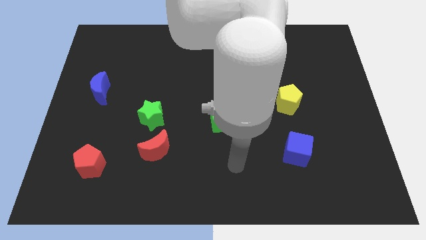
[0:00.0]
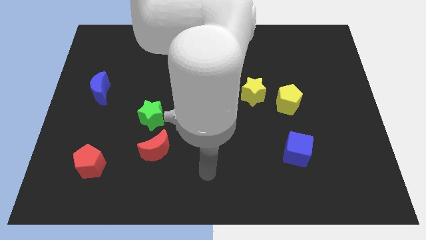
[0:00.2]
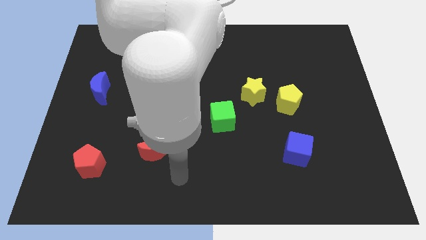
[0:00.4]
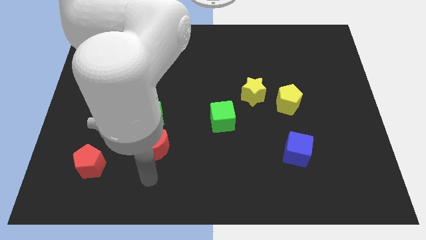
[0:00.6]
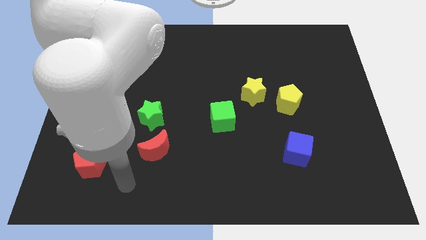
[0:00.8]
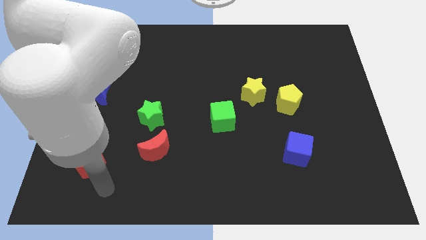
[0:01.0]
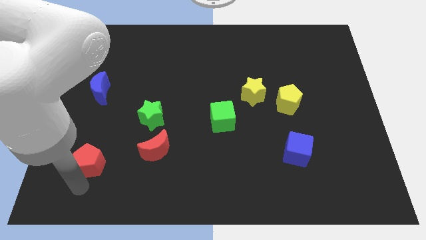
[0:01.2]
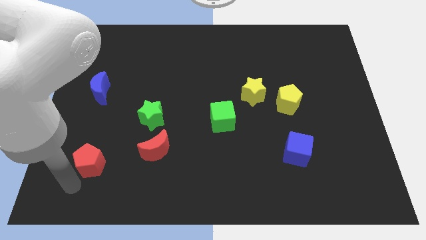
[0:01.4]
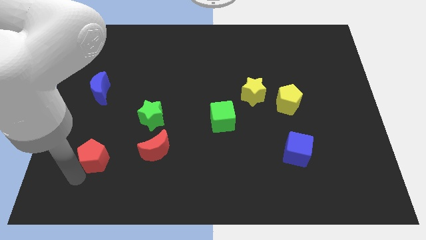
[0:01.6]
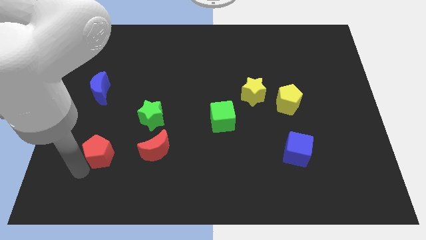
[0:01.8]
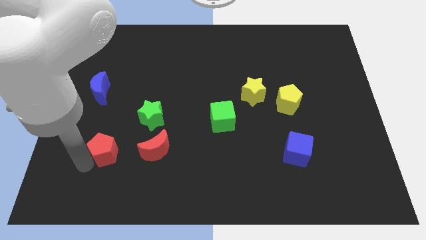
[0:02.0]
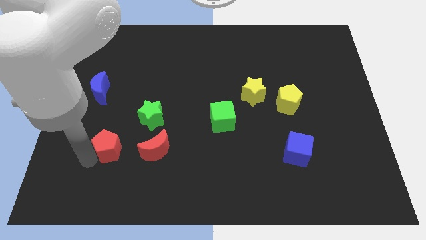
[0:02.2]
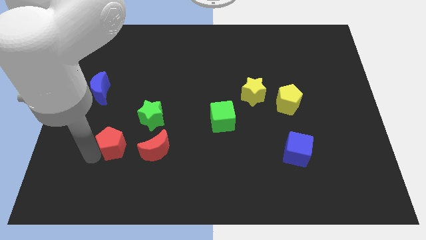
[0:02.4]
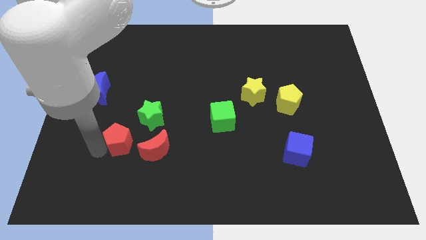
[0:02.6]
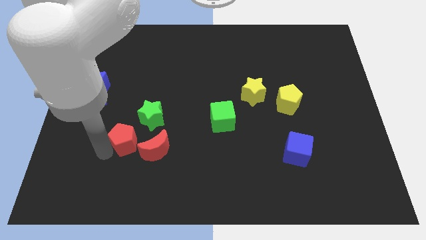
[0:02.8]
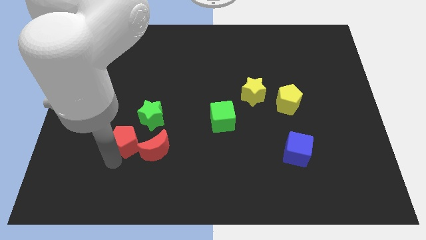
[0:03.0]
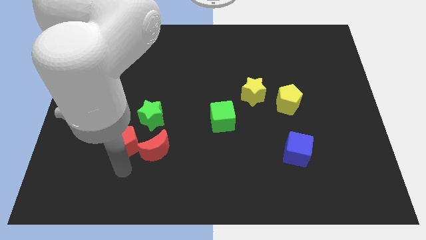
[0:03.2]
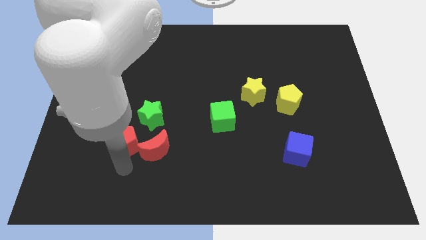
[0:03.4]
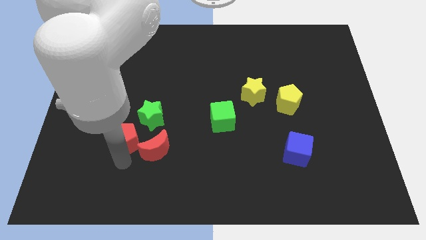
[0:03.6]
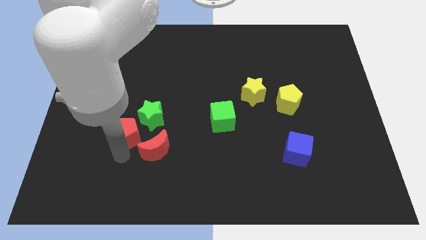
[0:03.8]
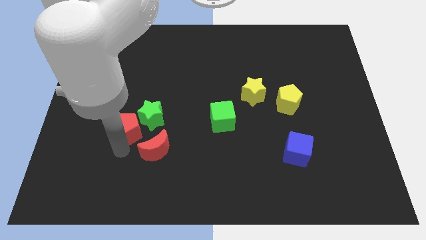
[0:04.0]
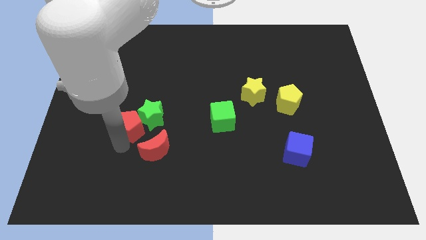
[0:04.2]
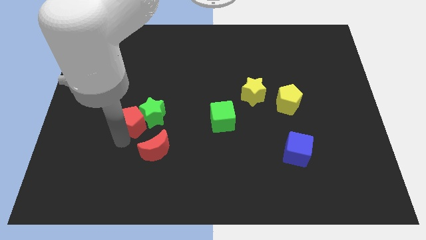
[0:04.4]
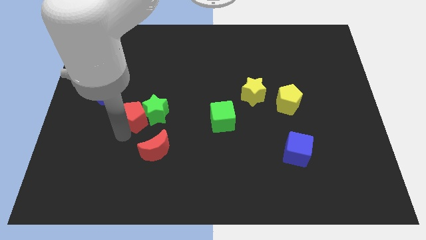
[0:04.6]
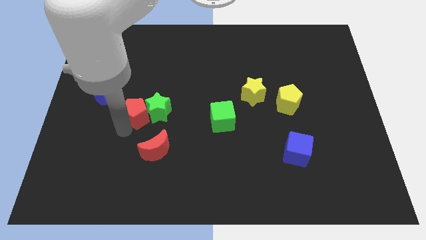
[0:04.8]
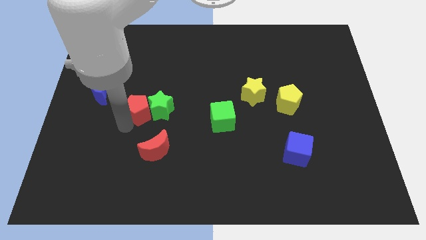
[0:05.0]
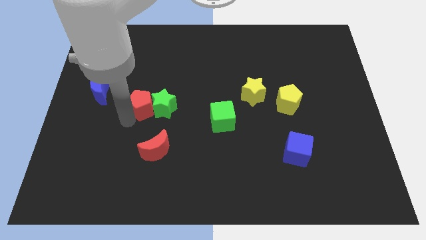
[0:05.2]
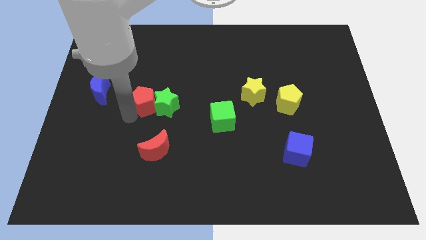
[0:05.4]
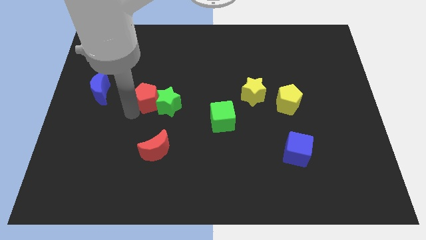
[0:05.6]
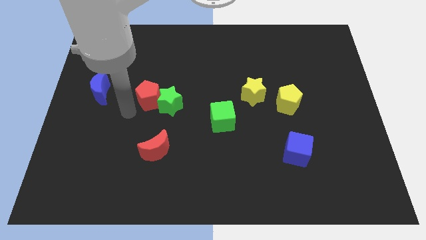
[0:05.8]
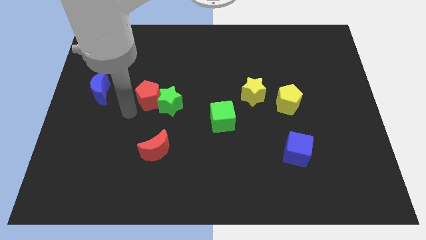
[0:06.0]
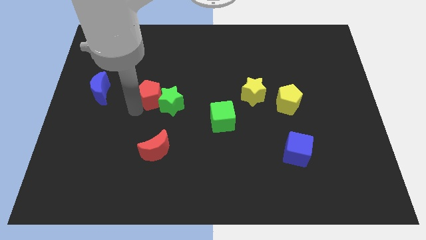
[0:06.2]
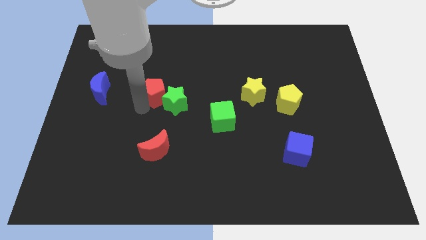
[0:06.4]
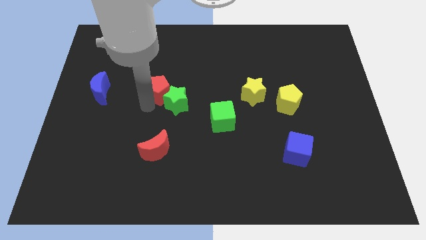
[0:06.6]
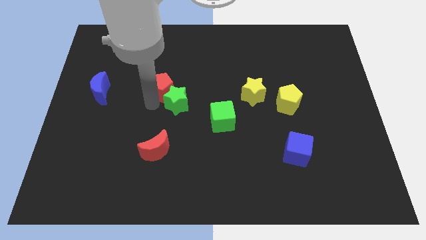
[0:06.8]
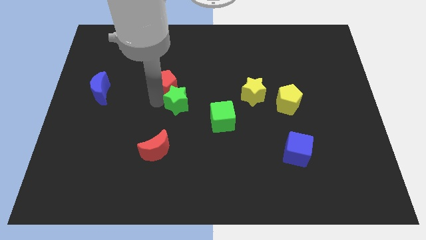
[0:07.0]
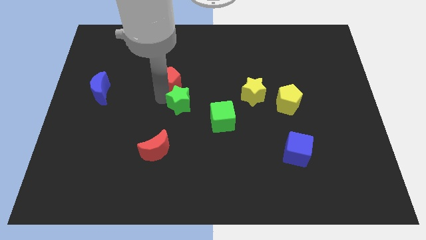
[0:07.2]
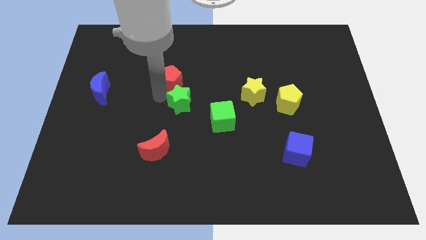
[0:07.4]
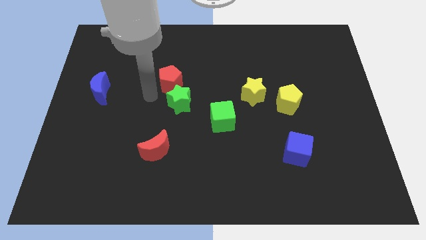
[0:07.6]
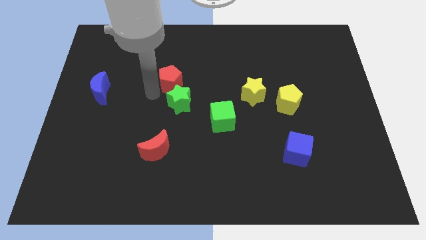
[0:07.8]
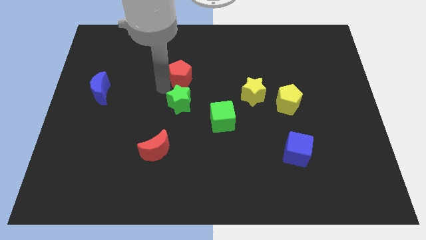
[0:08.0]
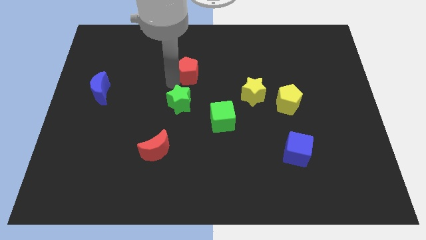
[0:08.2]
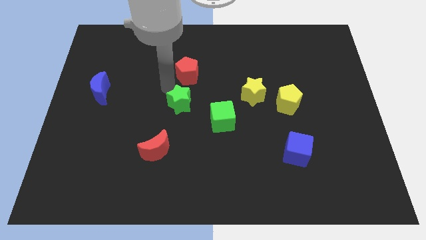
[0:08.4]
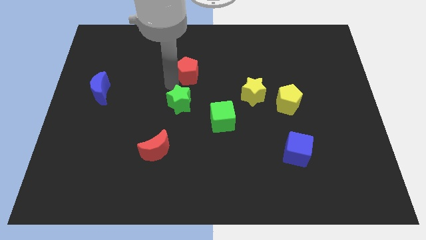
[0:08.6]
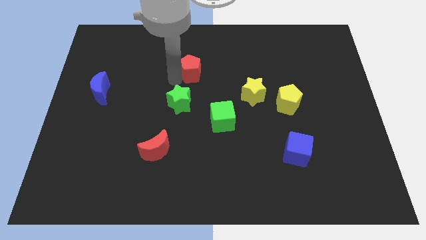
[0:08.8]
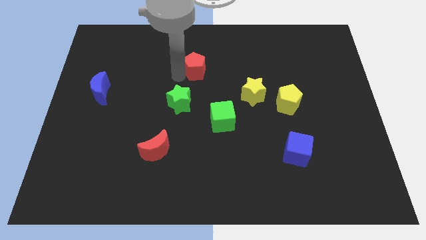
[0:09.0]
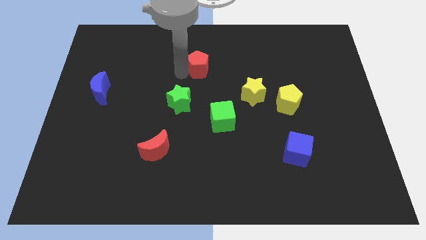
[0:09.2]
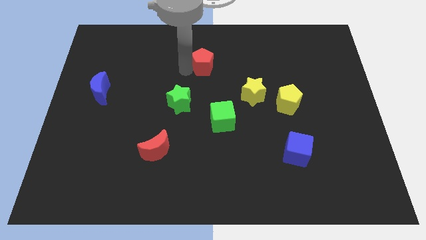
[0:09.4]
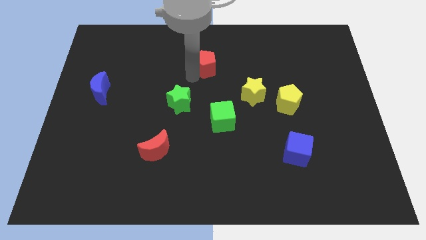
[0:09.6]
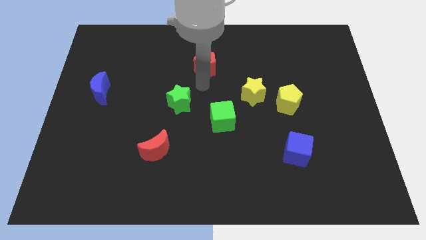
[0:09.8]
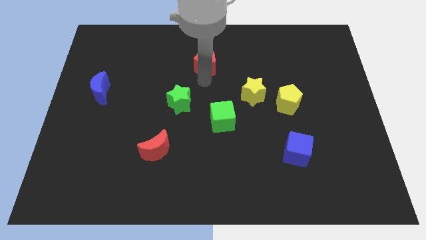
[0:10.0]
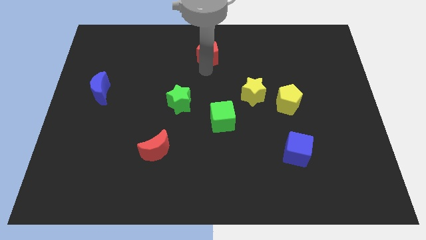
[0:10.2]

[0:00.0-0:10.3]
put the red pentagon to the towards your base

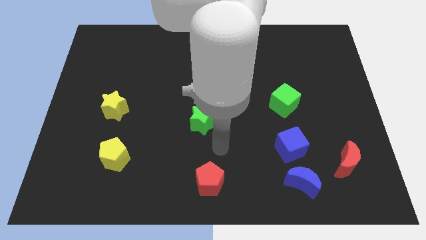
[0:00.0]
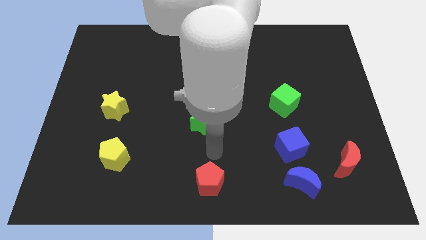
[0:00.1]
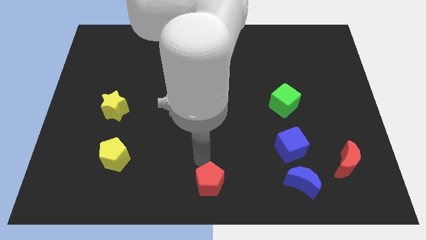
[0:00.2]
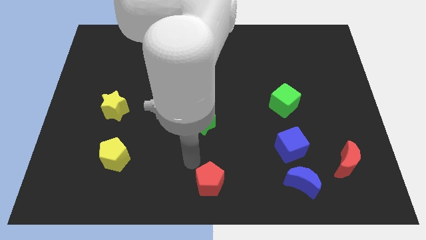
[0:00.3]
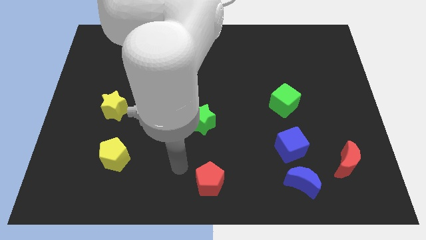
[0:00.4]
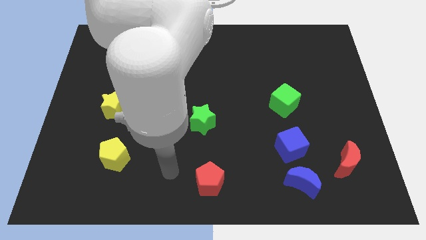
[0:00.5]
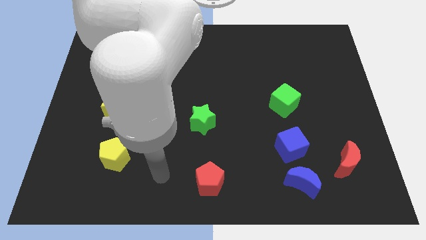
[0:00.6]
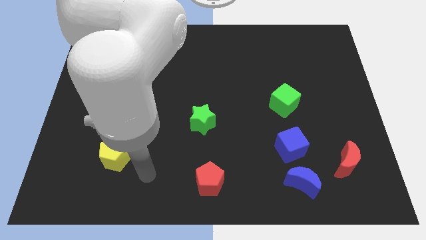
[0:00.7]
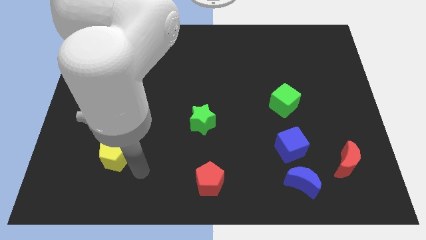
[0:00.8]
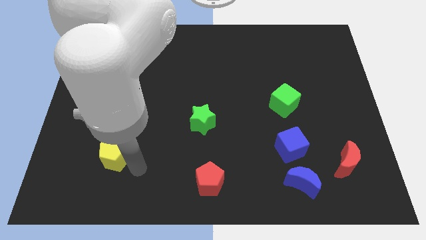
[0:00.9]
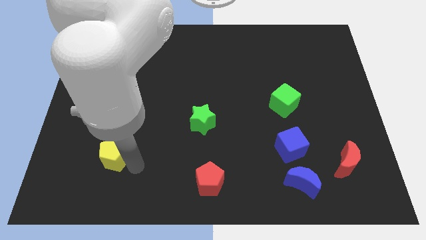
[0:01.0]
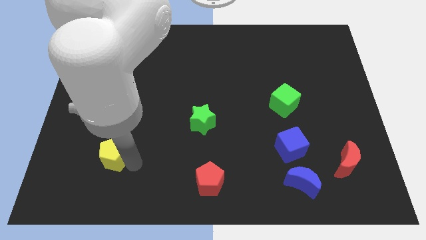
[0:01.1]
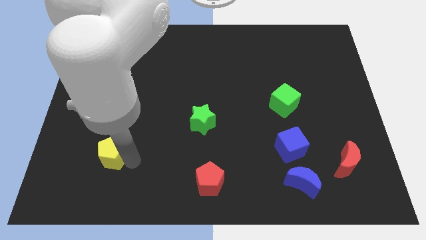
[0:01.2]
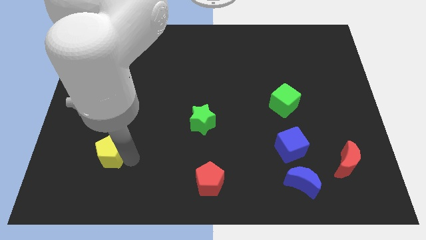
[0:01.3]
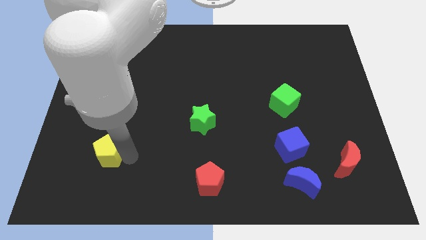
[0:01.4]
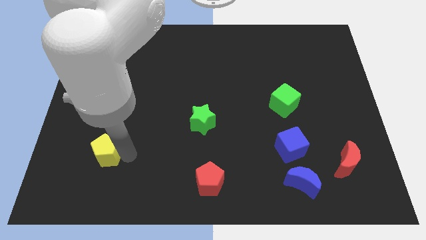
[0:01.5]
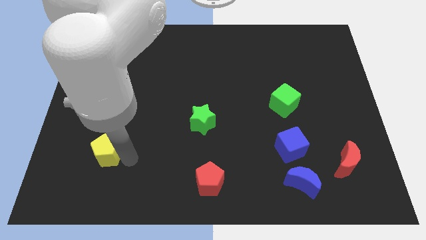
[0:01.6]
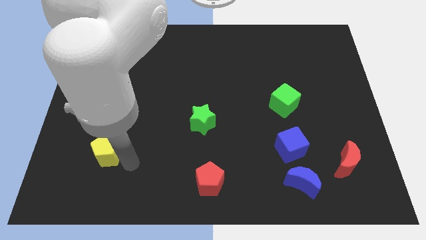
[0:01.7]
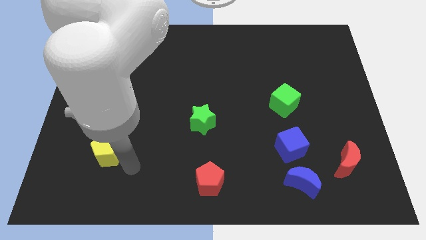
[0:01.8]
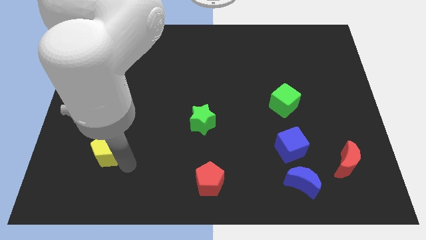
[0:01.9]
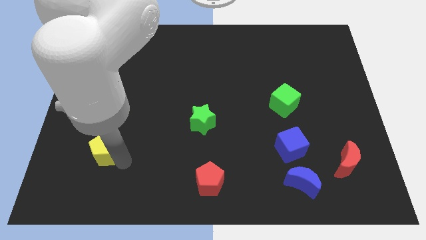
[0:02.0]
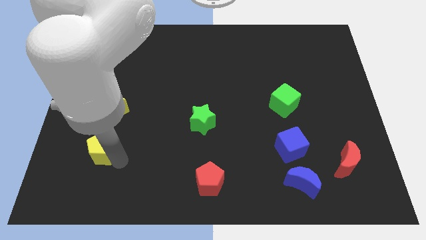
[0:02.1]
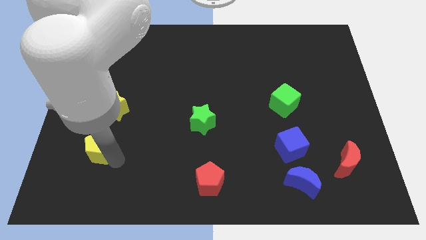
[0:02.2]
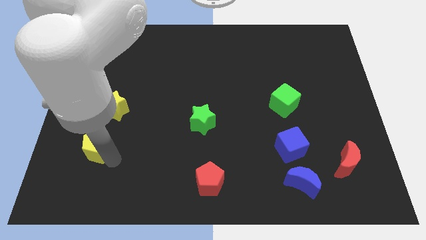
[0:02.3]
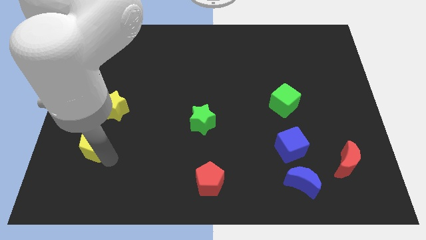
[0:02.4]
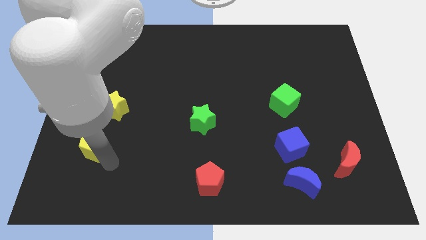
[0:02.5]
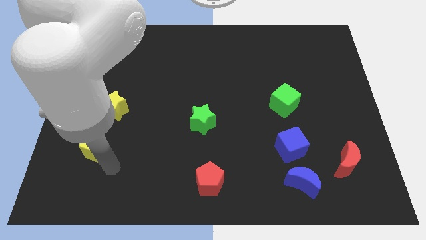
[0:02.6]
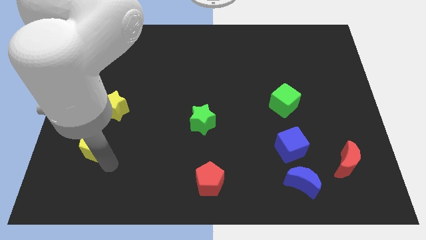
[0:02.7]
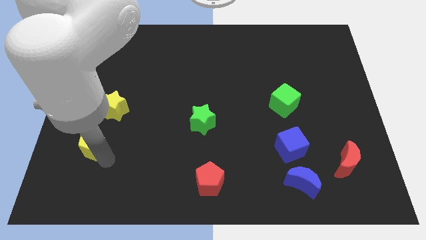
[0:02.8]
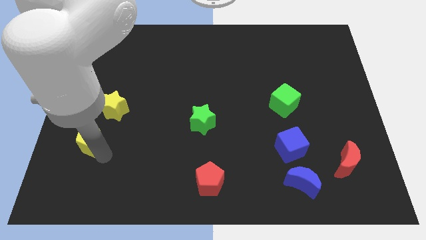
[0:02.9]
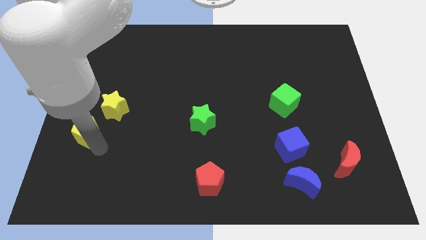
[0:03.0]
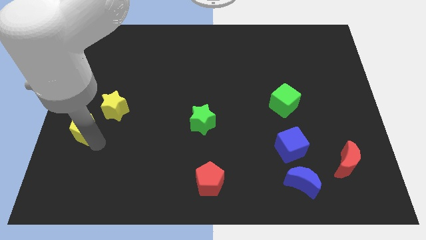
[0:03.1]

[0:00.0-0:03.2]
put the yellow pentagon to the center left
